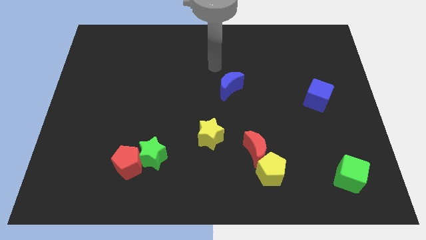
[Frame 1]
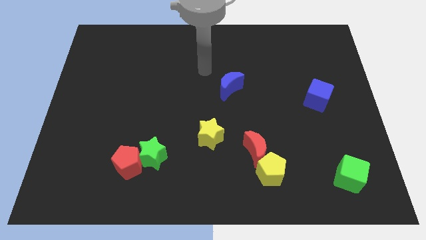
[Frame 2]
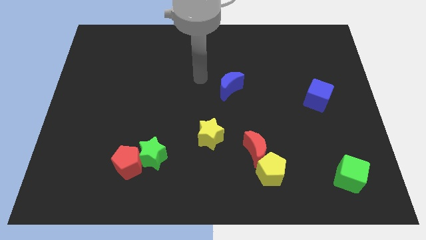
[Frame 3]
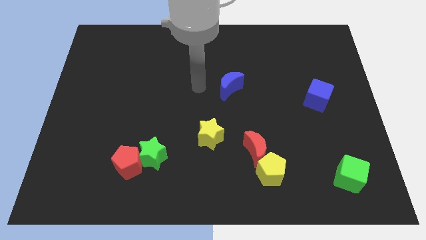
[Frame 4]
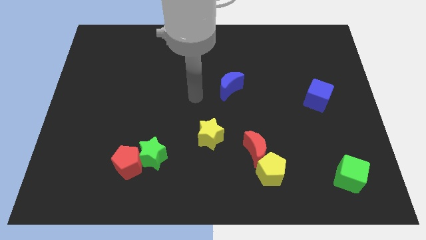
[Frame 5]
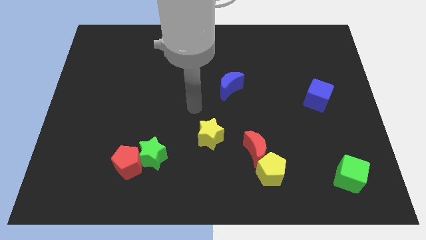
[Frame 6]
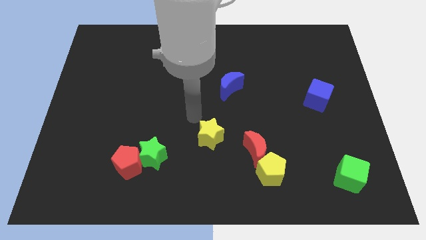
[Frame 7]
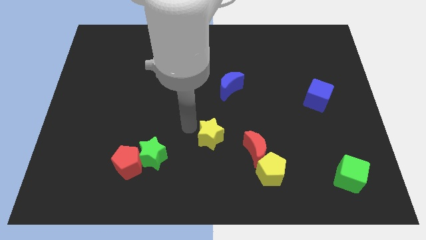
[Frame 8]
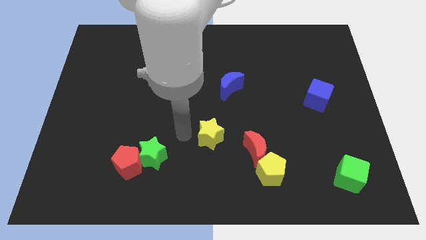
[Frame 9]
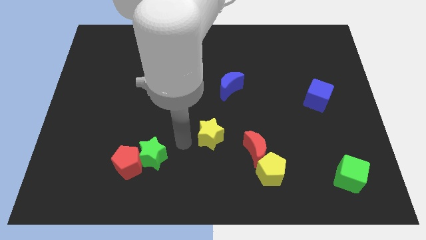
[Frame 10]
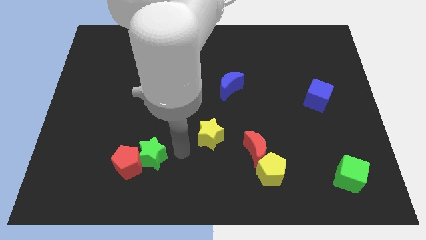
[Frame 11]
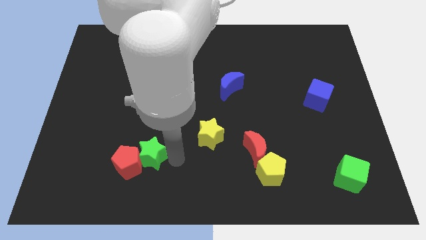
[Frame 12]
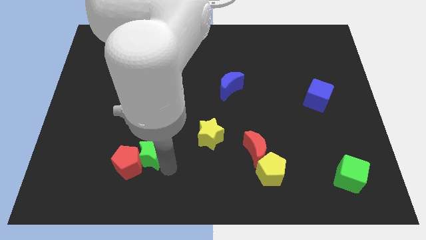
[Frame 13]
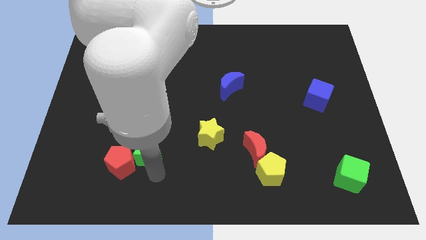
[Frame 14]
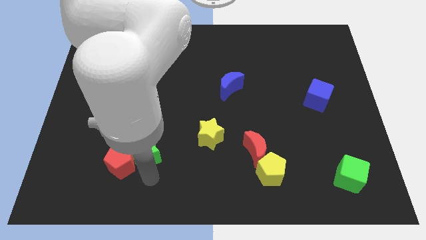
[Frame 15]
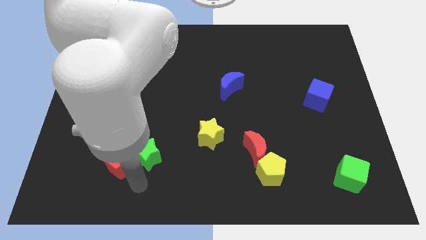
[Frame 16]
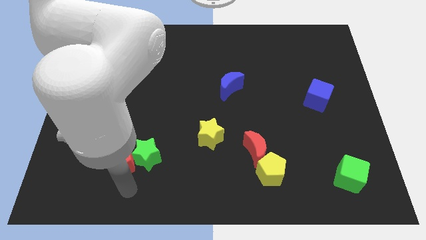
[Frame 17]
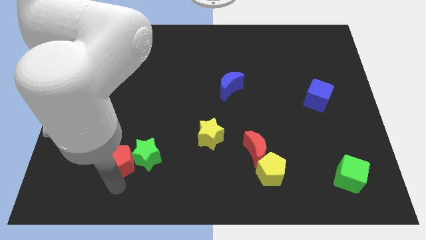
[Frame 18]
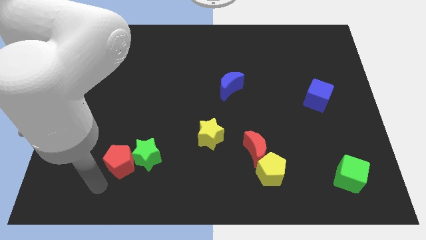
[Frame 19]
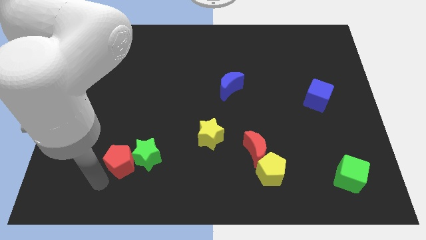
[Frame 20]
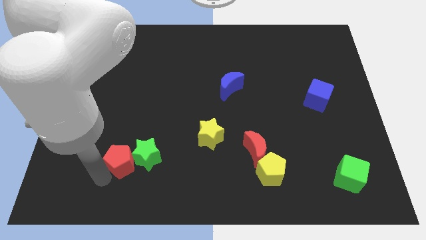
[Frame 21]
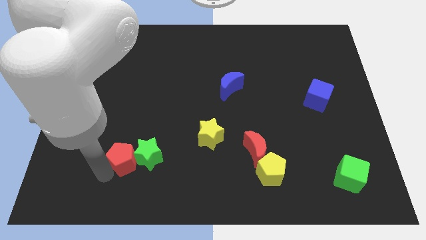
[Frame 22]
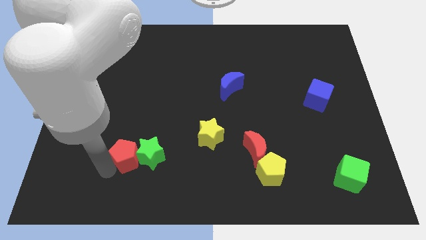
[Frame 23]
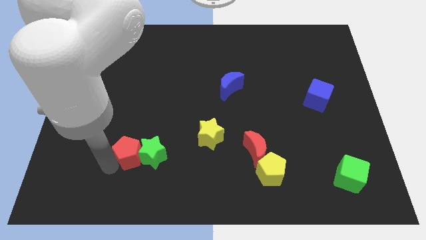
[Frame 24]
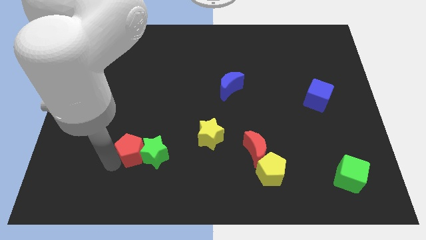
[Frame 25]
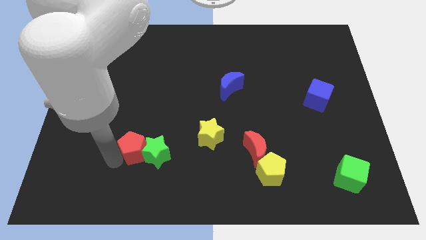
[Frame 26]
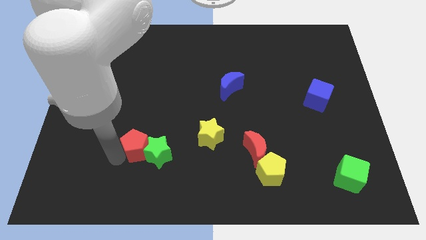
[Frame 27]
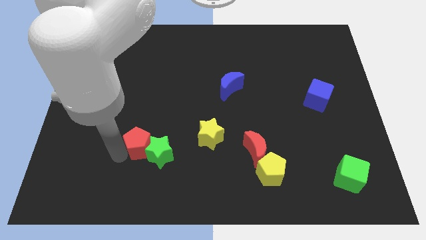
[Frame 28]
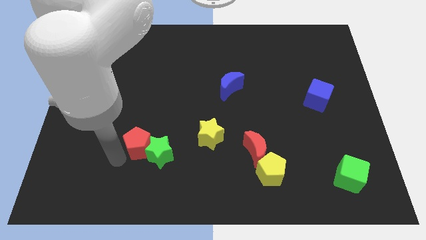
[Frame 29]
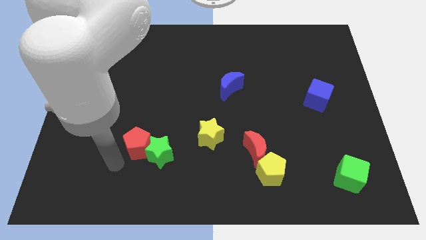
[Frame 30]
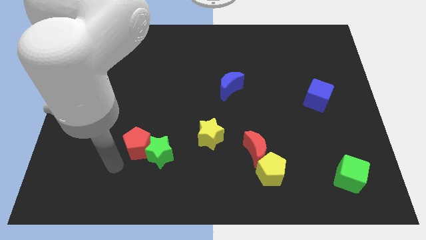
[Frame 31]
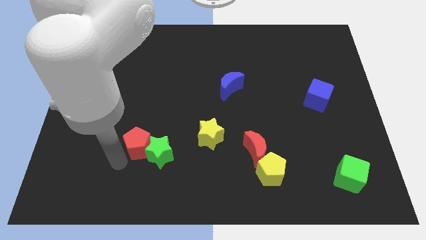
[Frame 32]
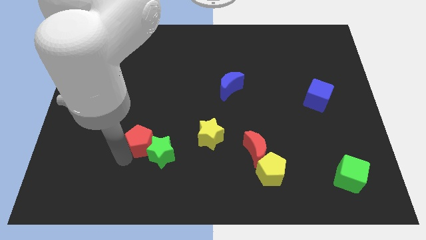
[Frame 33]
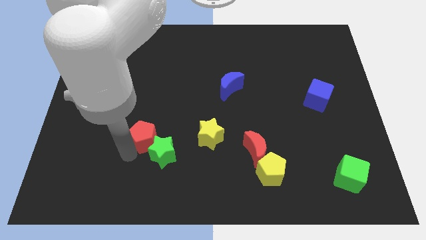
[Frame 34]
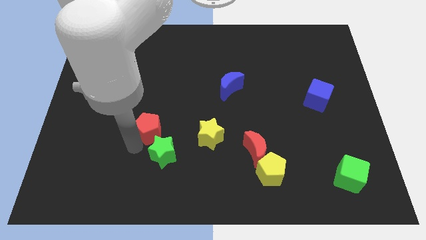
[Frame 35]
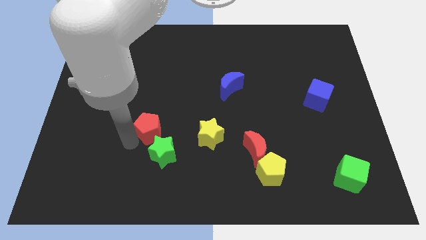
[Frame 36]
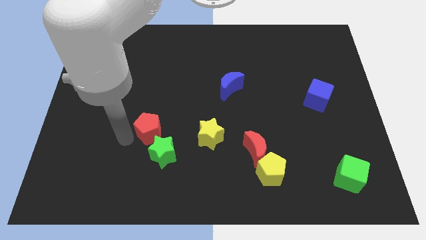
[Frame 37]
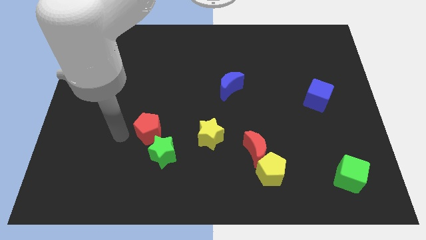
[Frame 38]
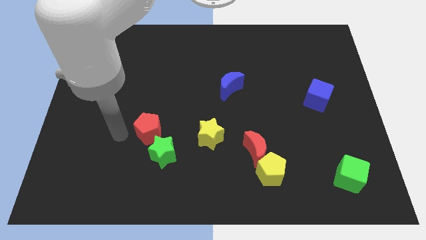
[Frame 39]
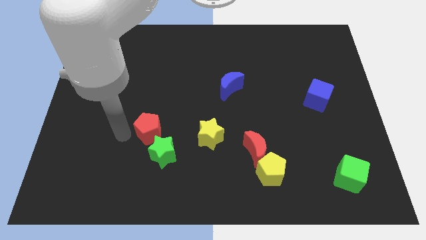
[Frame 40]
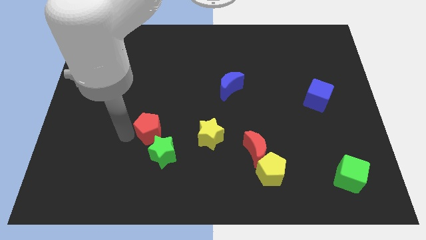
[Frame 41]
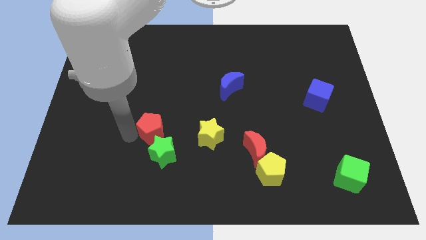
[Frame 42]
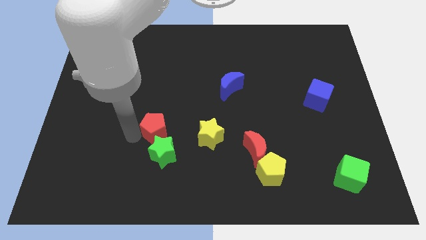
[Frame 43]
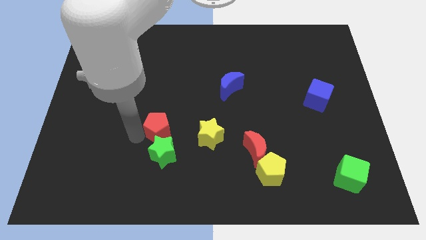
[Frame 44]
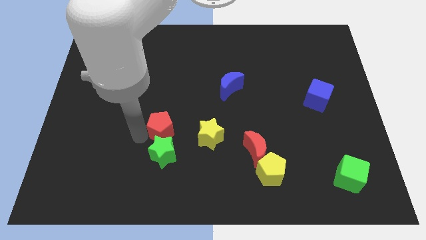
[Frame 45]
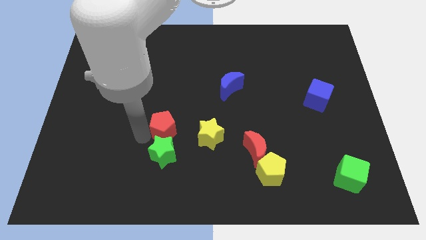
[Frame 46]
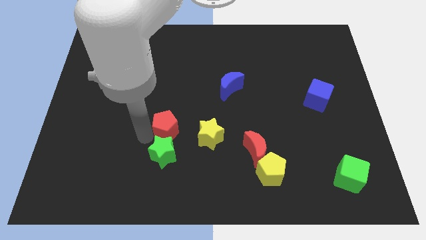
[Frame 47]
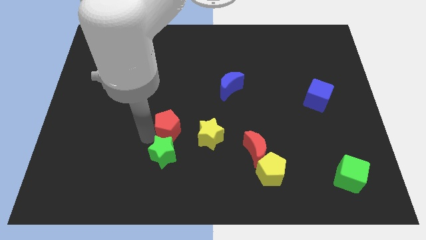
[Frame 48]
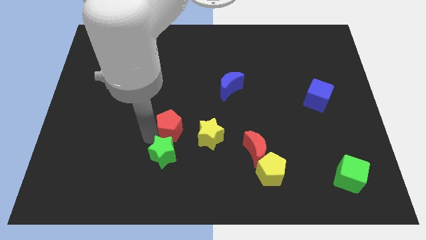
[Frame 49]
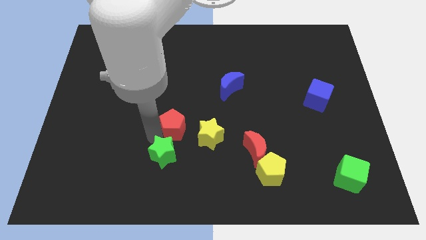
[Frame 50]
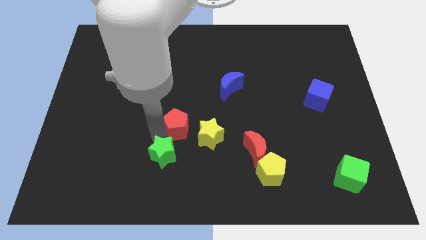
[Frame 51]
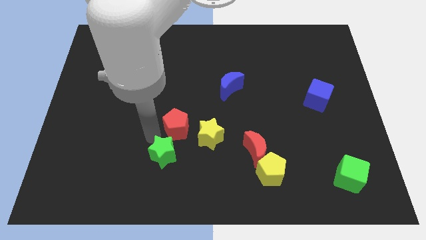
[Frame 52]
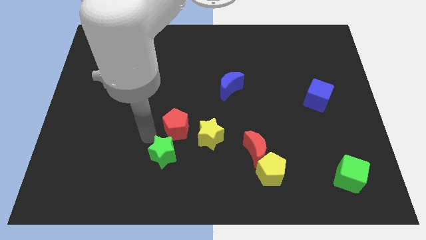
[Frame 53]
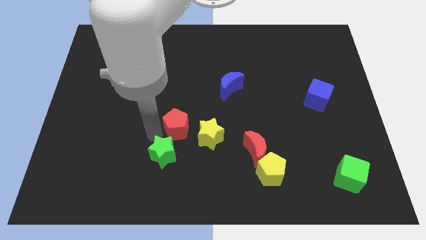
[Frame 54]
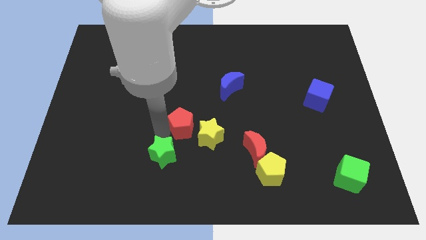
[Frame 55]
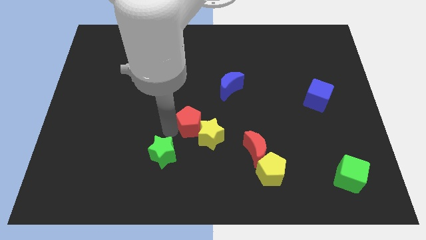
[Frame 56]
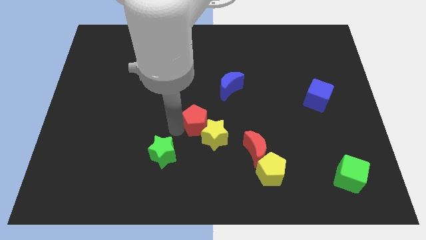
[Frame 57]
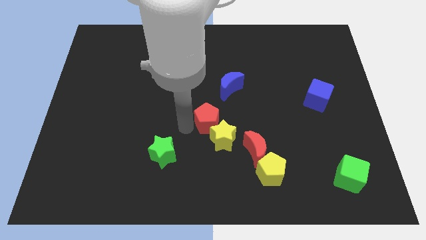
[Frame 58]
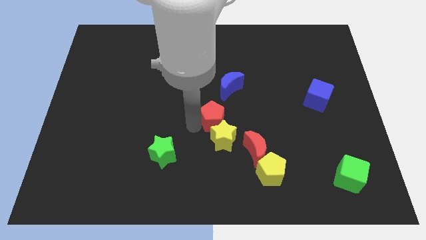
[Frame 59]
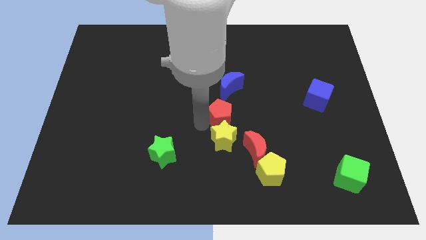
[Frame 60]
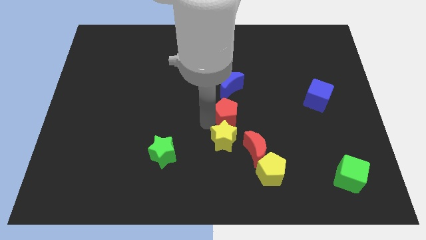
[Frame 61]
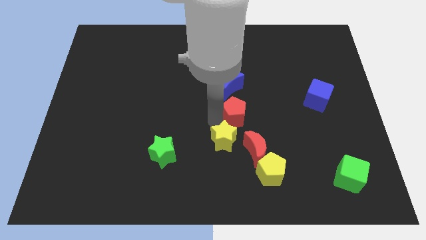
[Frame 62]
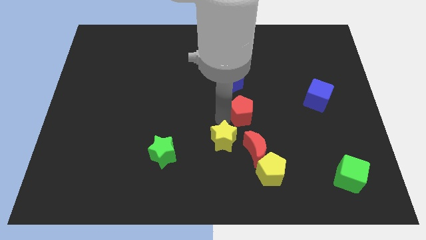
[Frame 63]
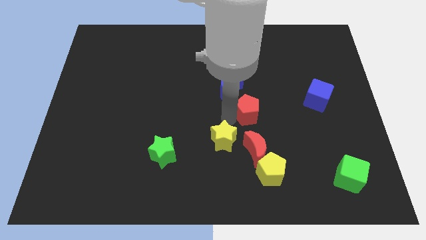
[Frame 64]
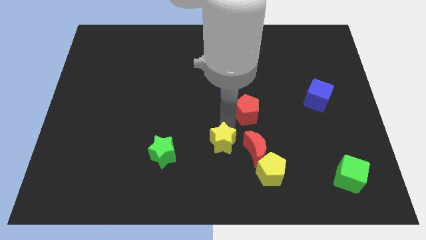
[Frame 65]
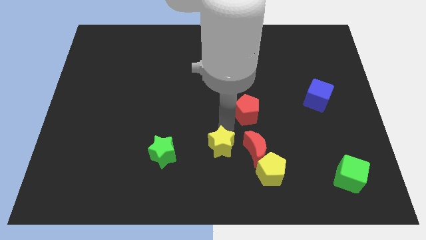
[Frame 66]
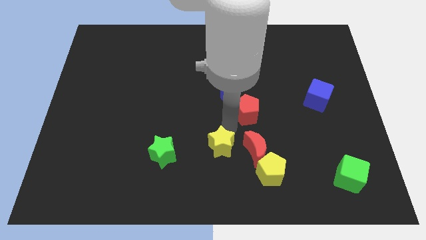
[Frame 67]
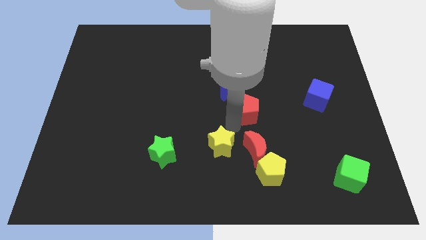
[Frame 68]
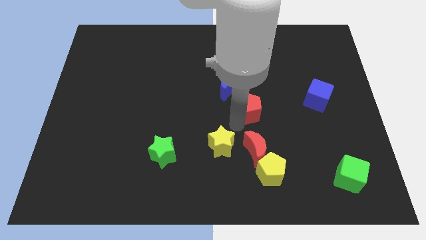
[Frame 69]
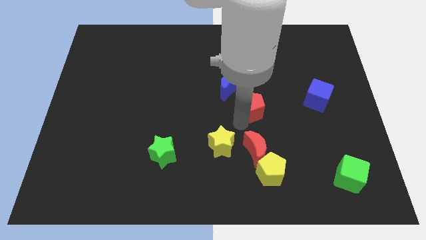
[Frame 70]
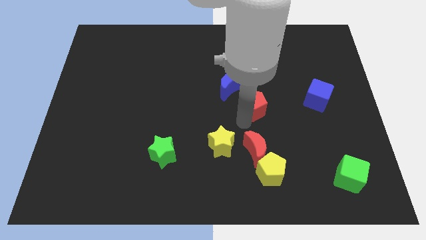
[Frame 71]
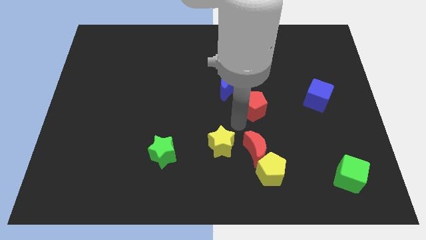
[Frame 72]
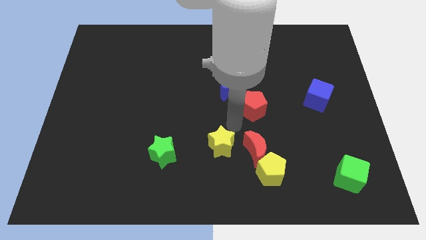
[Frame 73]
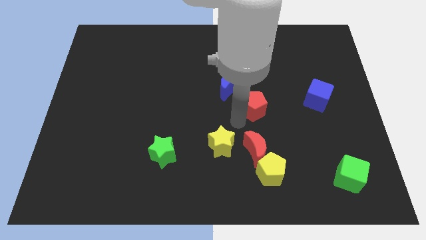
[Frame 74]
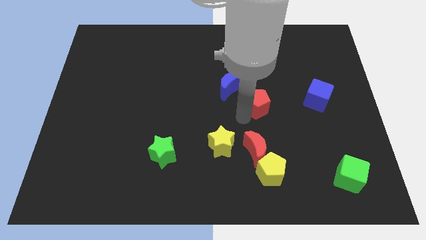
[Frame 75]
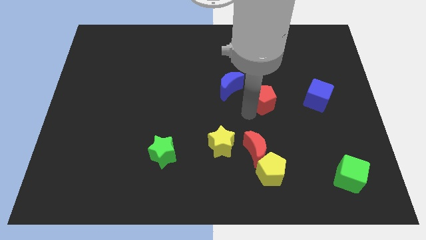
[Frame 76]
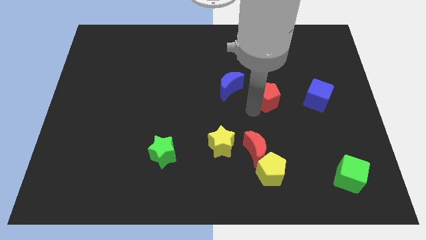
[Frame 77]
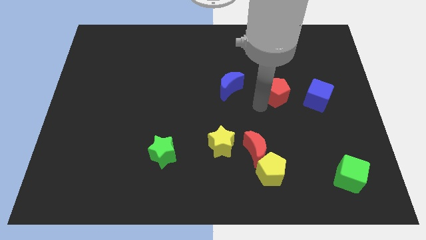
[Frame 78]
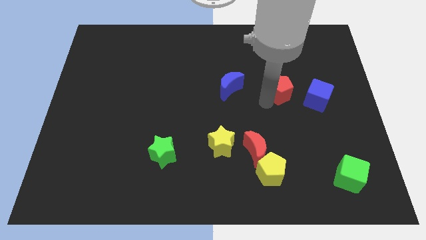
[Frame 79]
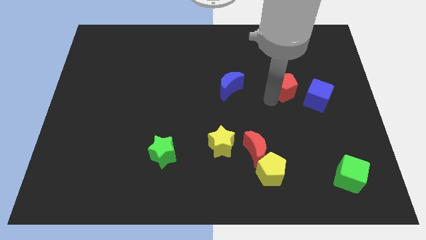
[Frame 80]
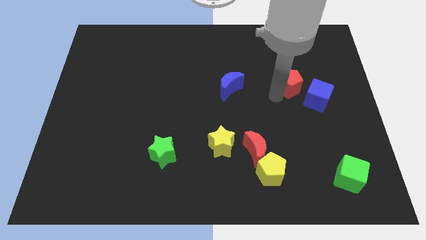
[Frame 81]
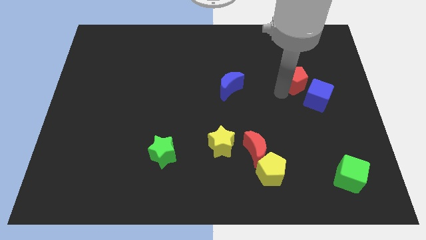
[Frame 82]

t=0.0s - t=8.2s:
put the red pentagon above the blue cube
